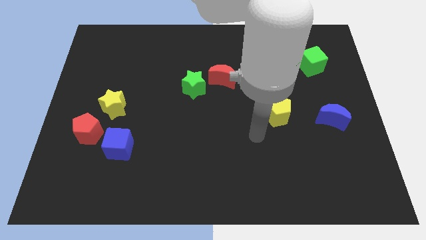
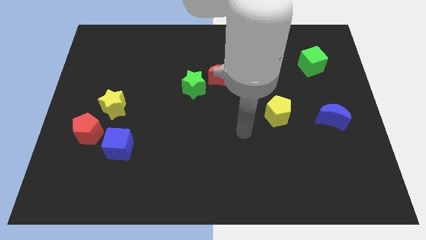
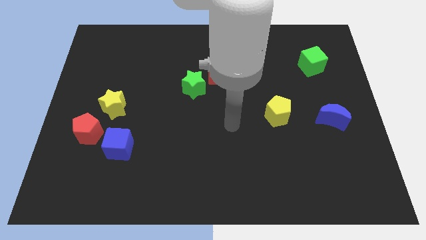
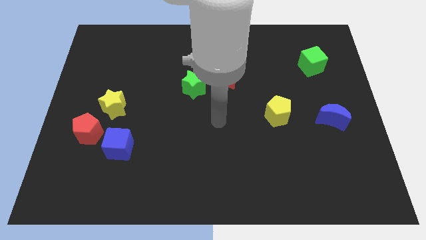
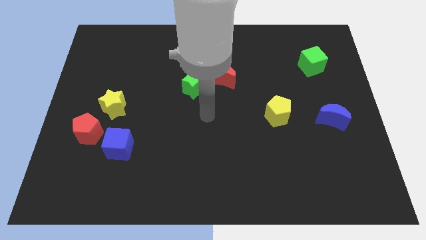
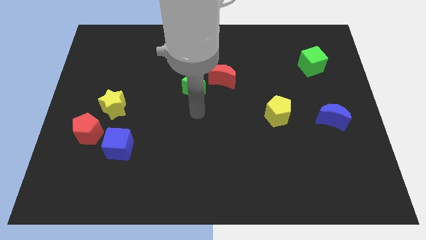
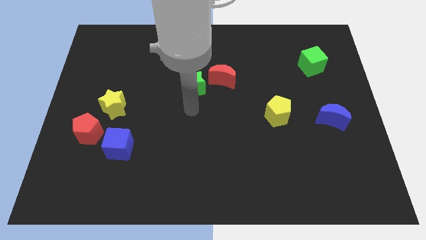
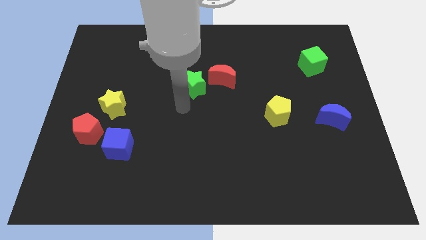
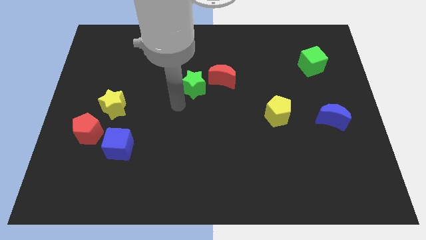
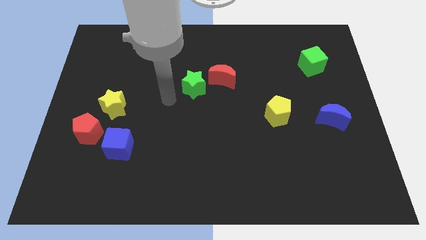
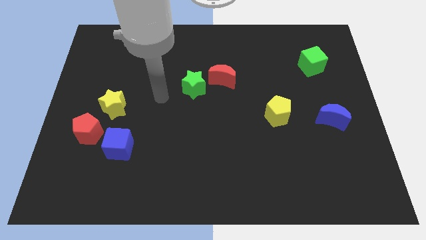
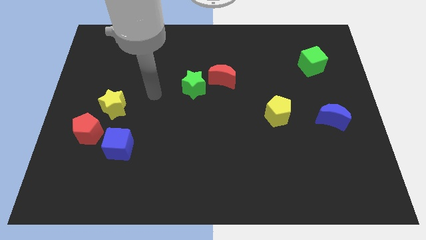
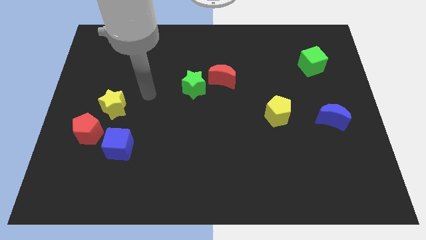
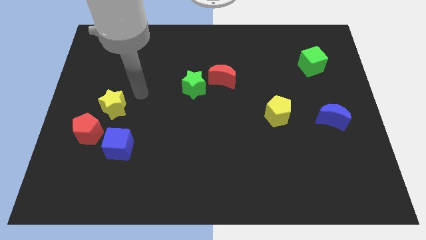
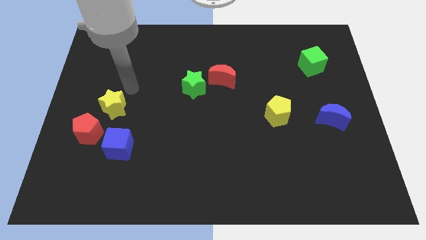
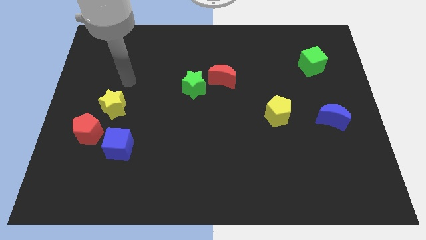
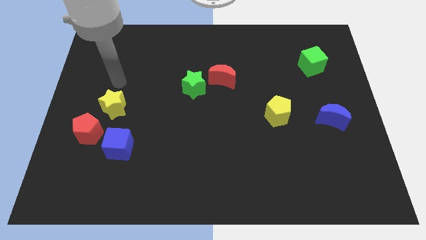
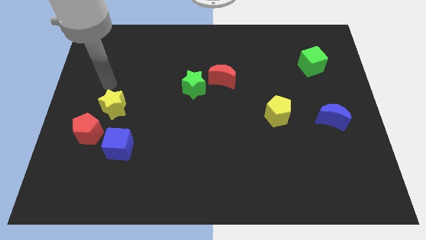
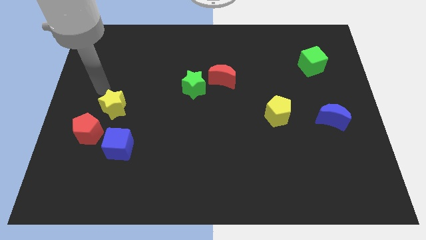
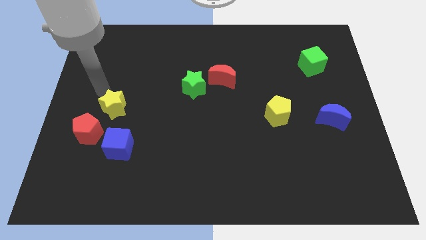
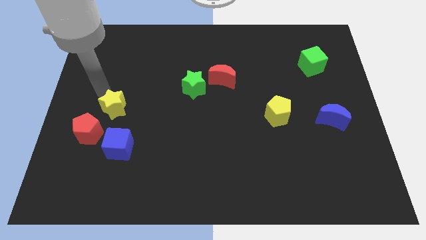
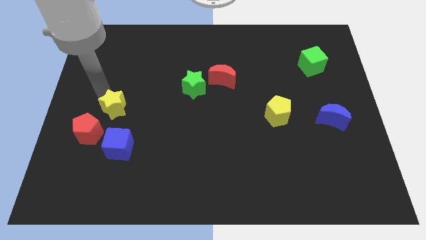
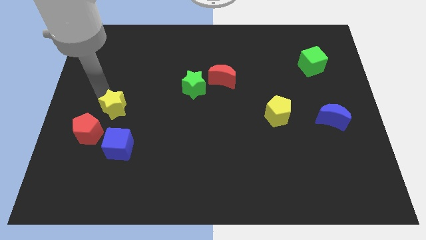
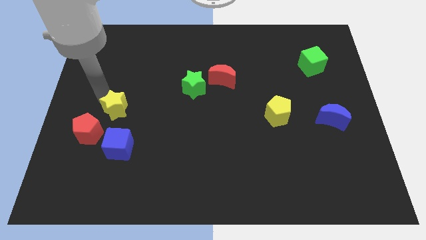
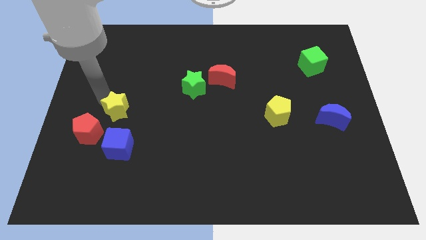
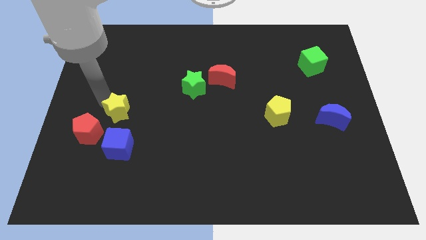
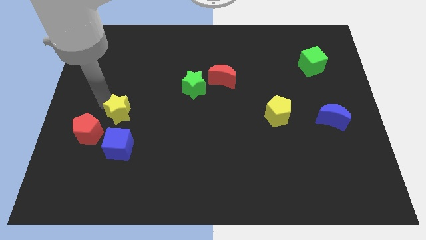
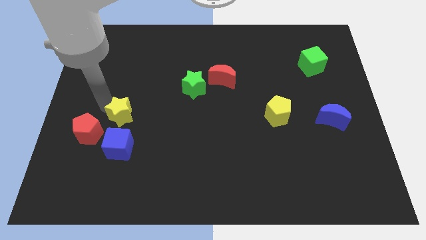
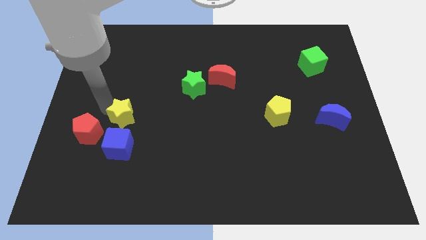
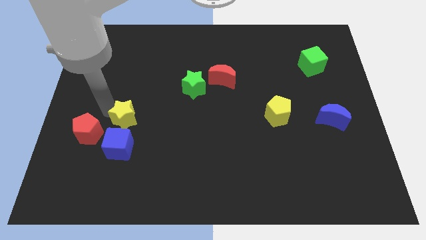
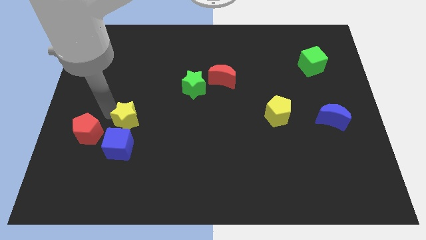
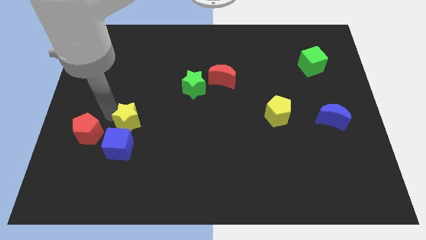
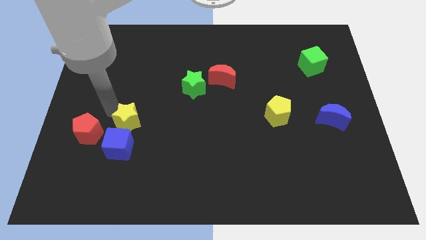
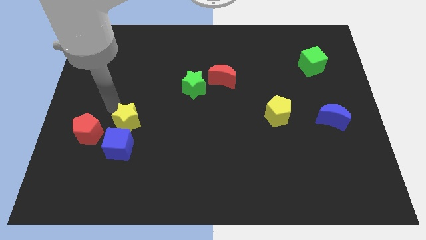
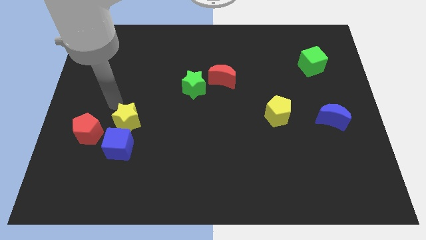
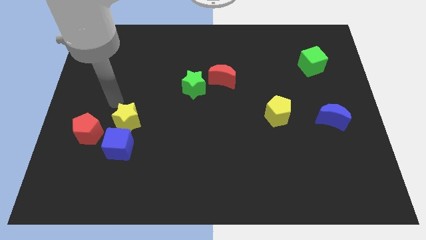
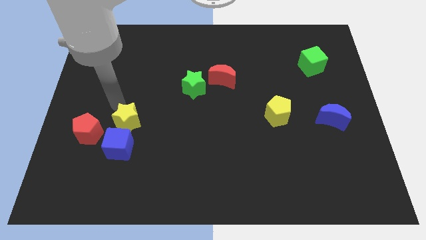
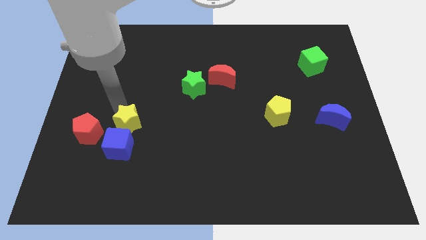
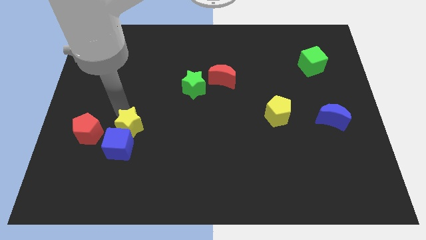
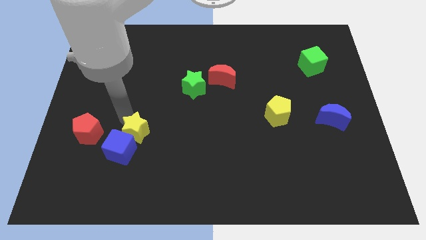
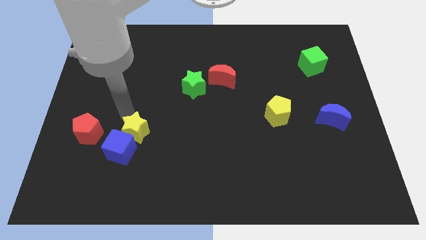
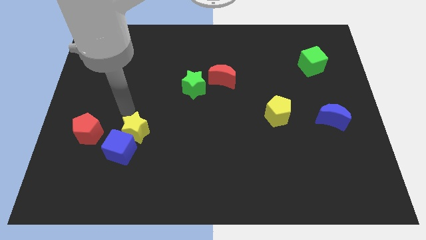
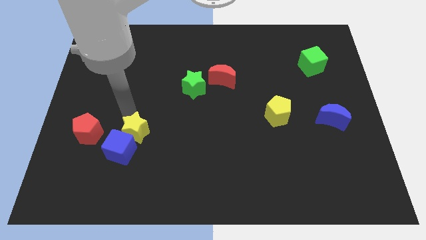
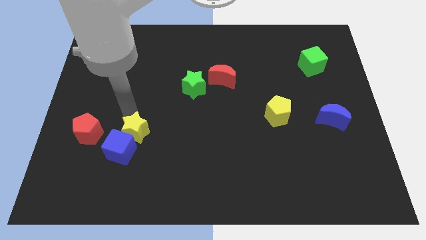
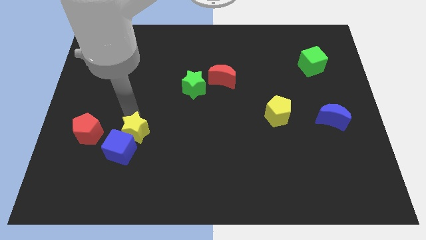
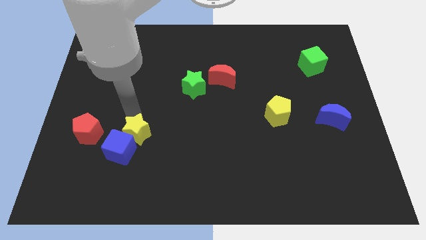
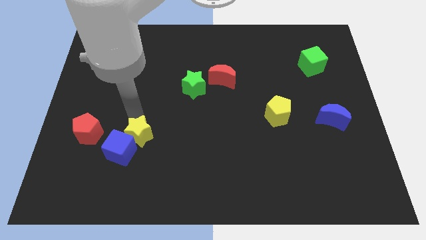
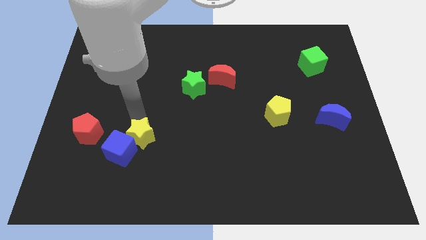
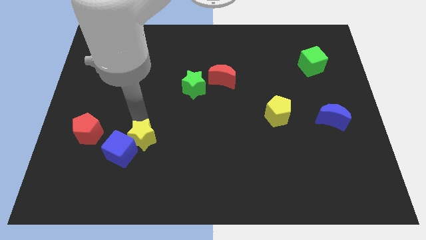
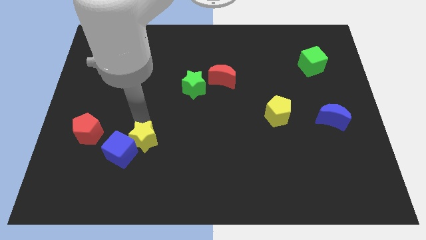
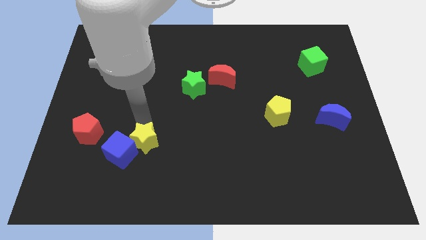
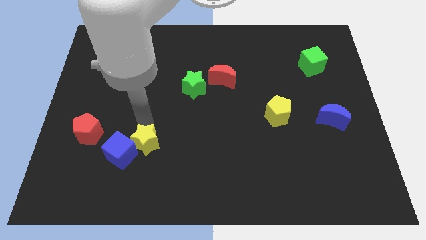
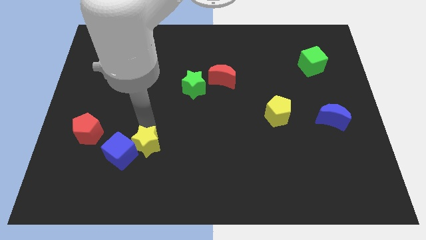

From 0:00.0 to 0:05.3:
slightly push the yellow star downwards

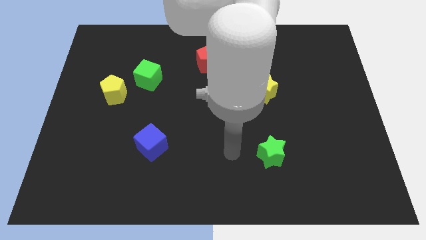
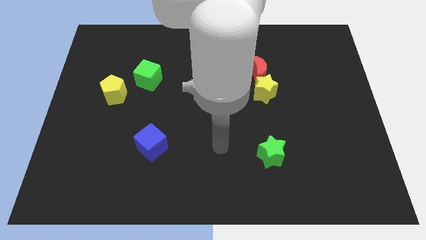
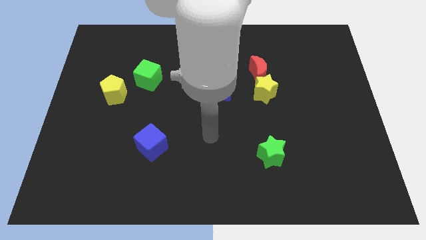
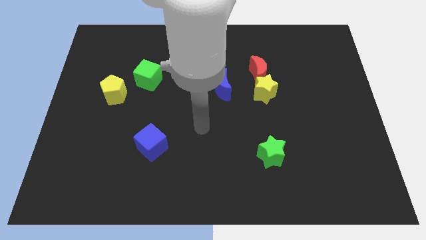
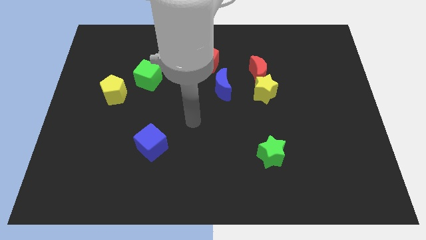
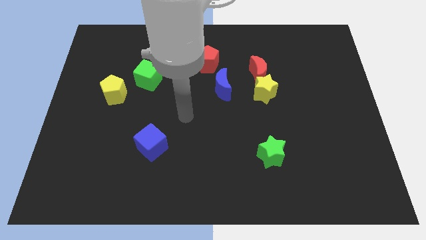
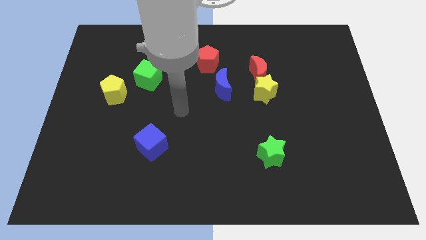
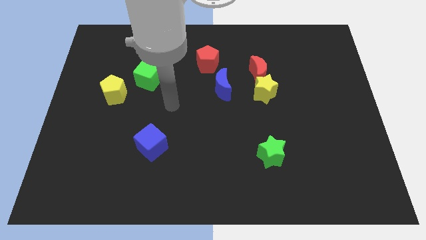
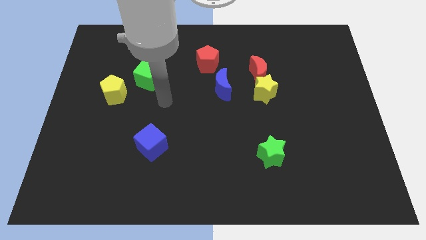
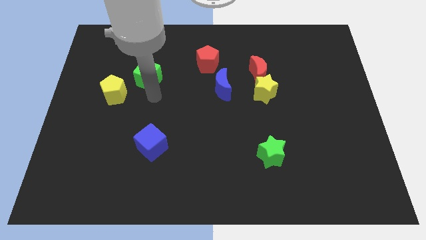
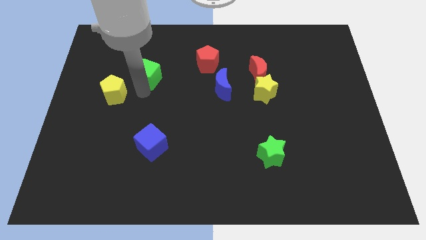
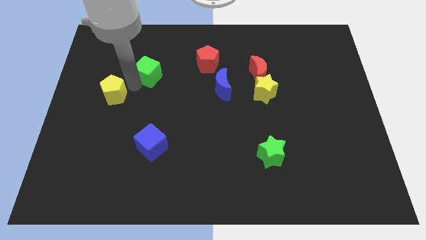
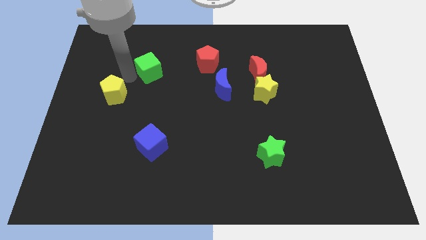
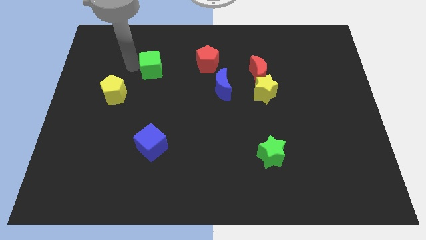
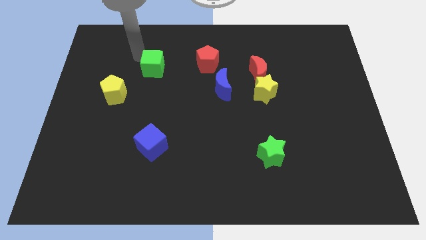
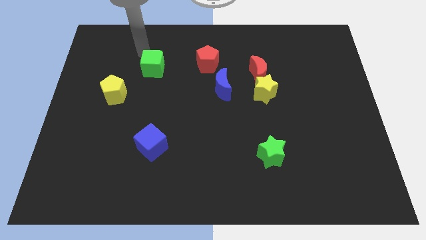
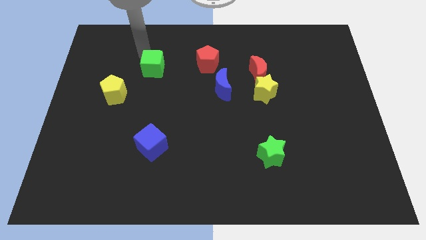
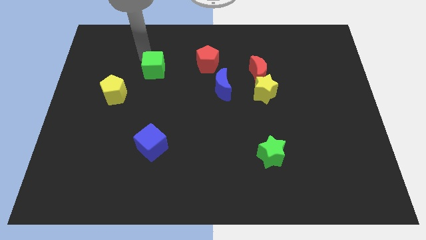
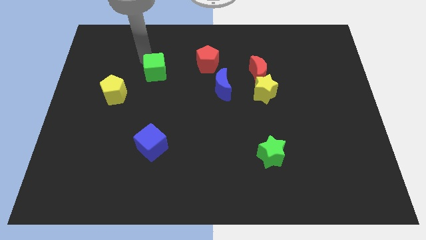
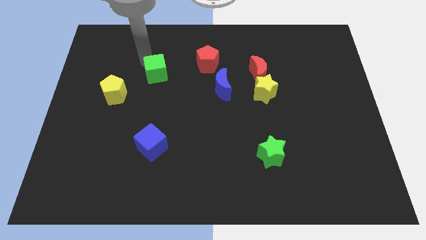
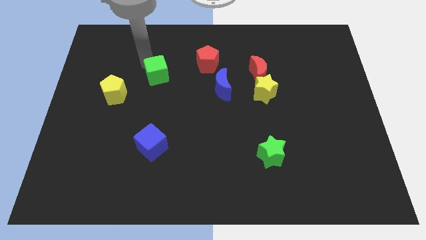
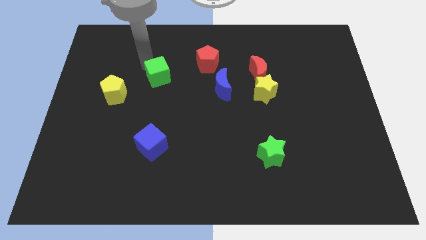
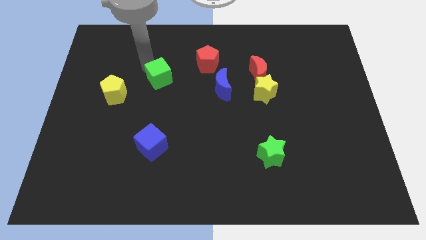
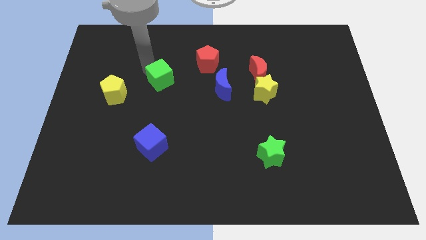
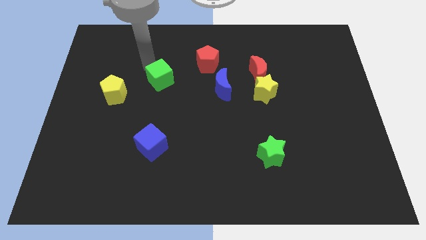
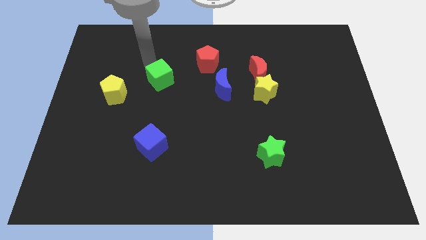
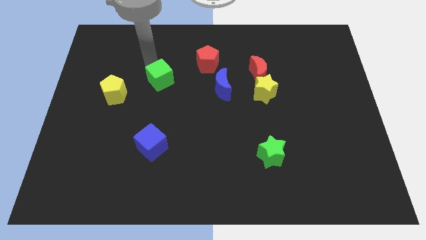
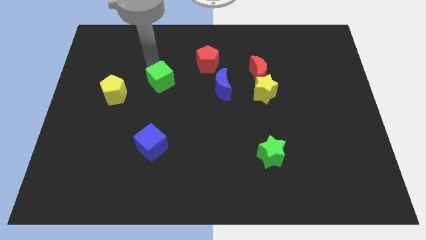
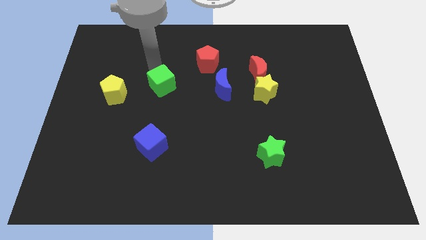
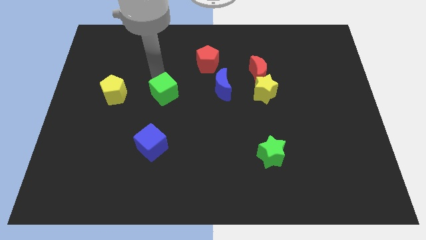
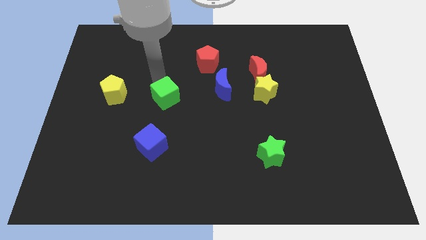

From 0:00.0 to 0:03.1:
move the green cube a little downwards and to the right diagonally
